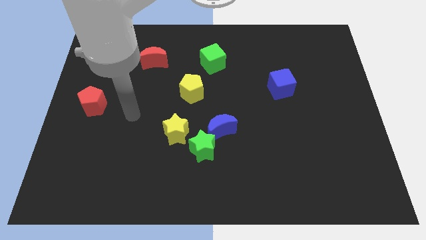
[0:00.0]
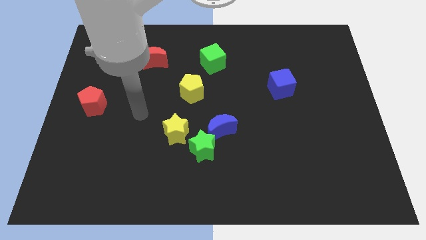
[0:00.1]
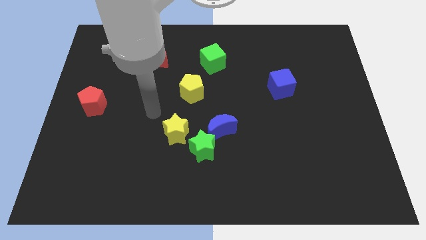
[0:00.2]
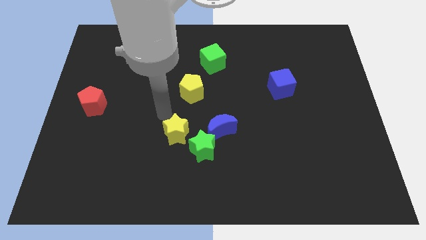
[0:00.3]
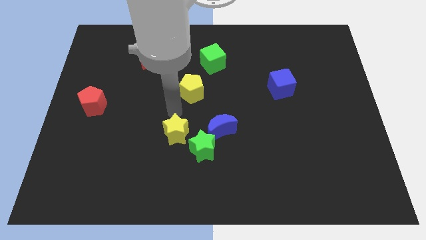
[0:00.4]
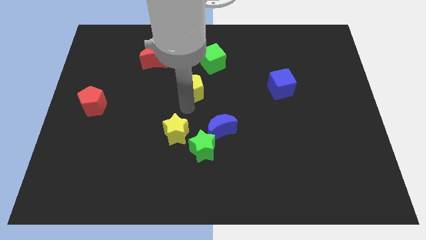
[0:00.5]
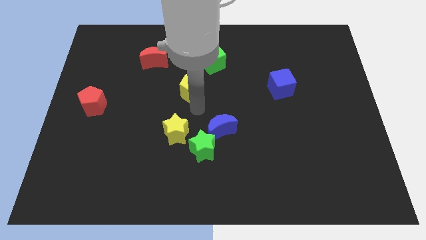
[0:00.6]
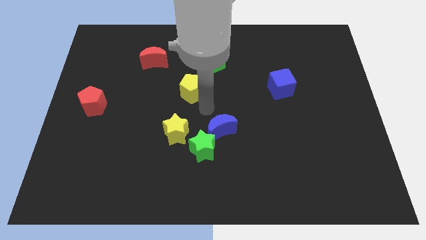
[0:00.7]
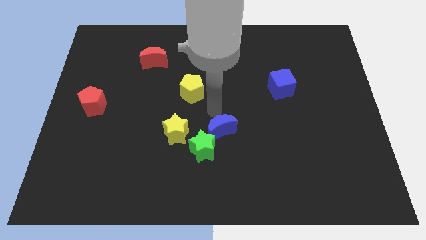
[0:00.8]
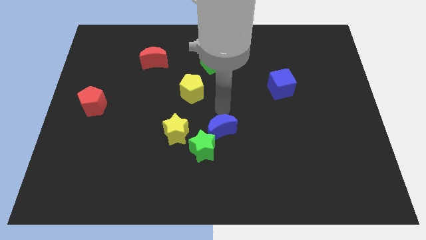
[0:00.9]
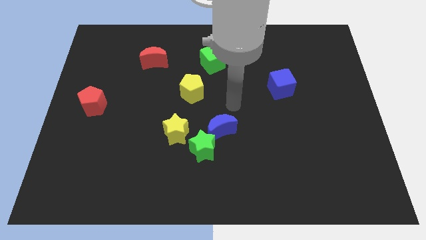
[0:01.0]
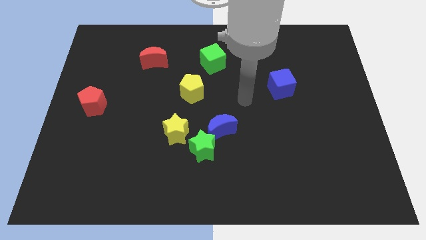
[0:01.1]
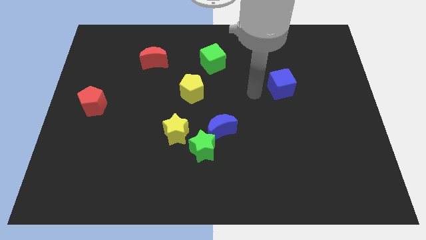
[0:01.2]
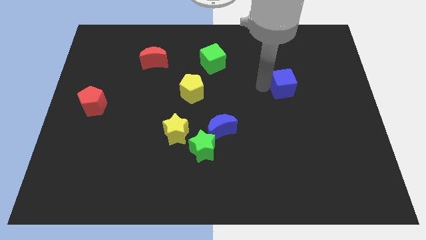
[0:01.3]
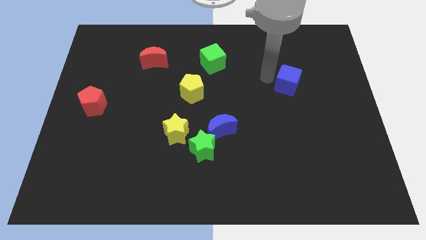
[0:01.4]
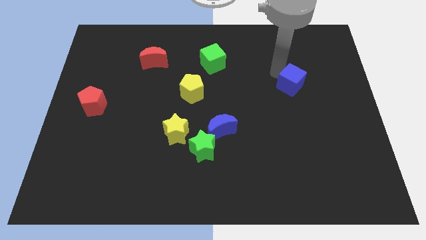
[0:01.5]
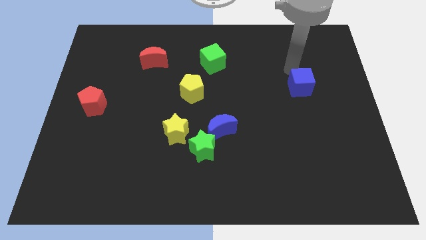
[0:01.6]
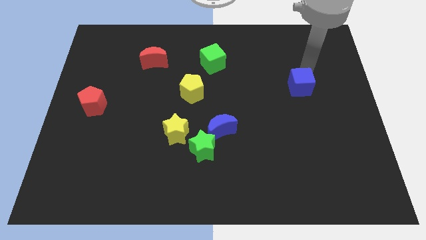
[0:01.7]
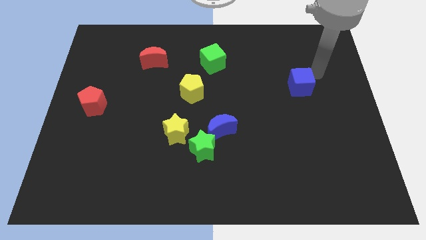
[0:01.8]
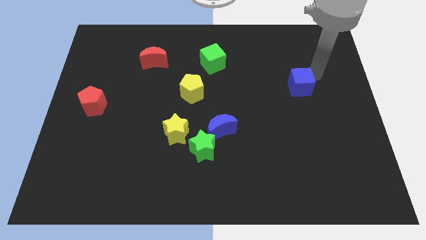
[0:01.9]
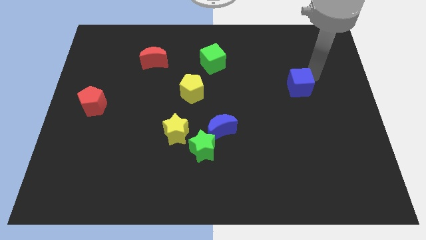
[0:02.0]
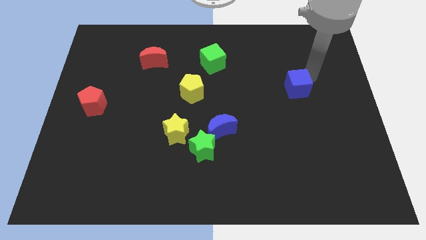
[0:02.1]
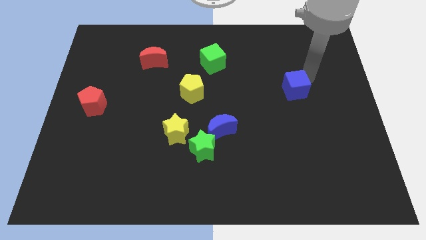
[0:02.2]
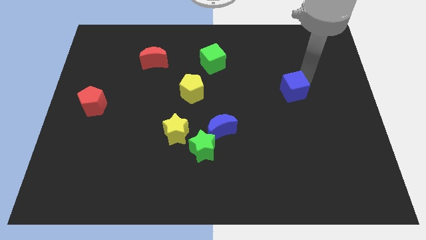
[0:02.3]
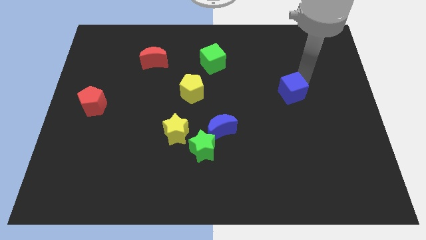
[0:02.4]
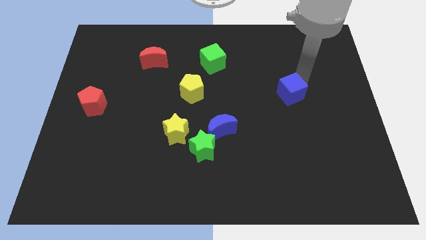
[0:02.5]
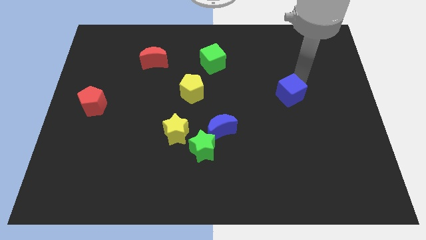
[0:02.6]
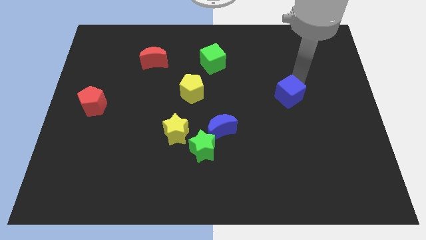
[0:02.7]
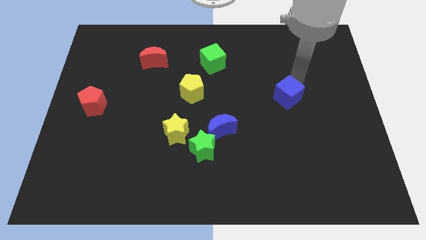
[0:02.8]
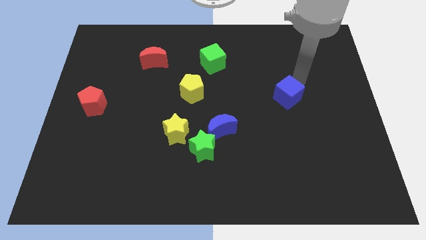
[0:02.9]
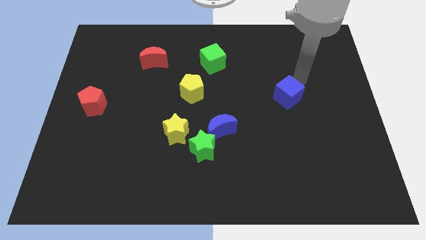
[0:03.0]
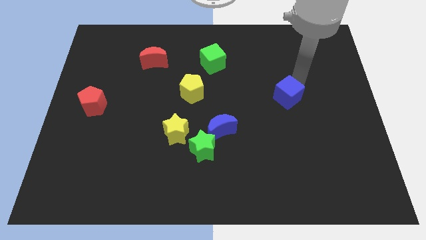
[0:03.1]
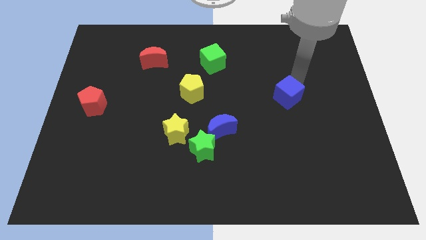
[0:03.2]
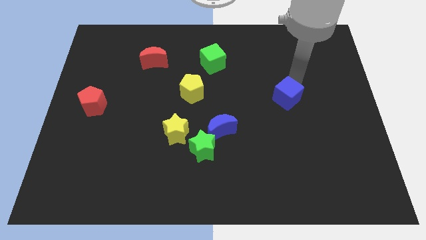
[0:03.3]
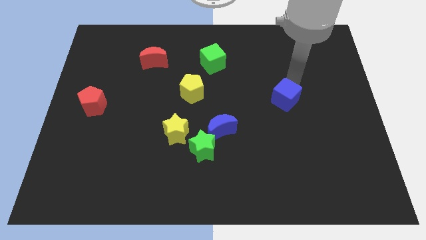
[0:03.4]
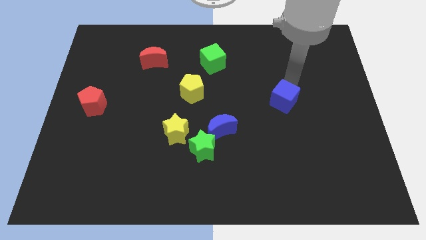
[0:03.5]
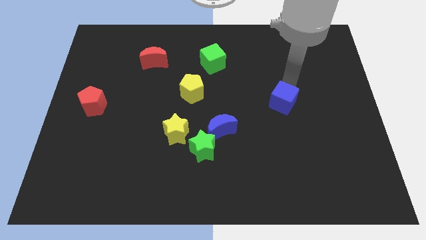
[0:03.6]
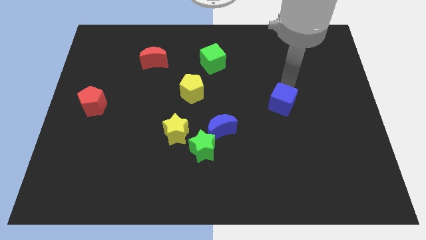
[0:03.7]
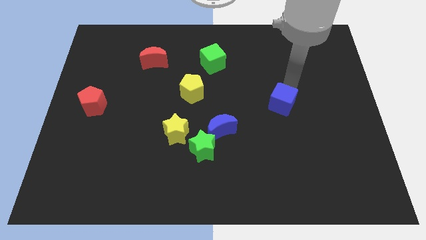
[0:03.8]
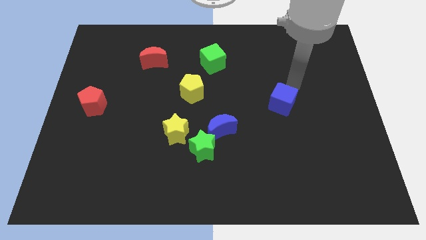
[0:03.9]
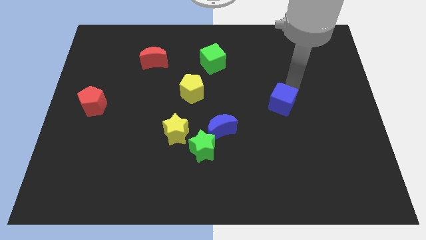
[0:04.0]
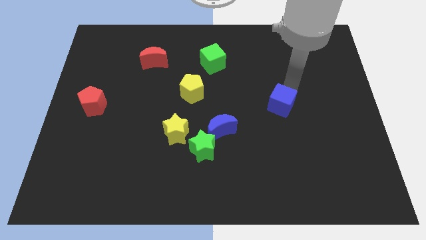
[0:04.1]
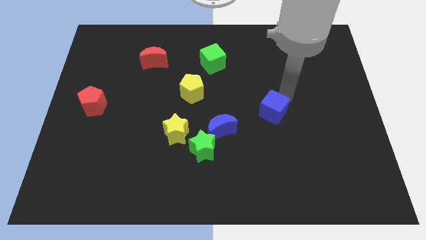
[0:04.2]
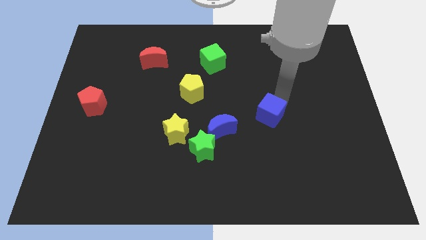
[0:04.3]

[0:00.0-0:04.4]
slide the blue cube to the right of the blue moon

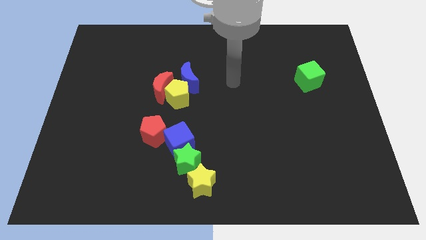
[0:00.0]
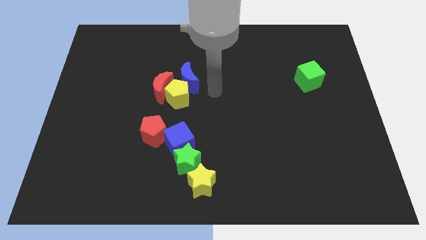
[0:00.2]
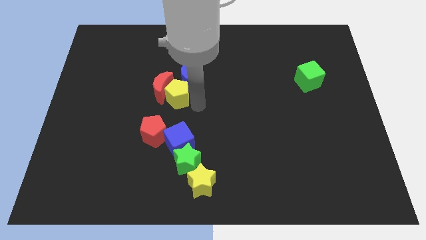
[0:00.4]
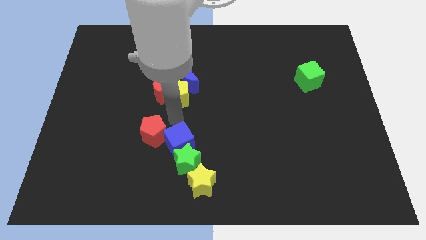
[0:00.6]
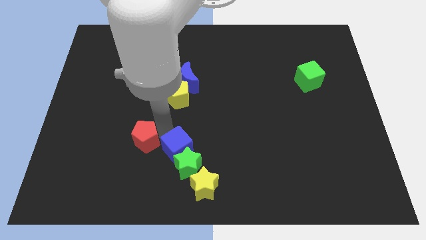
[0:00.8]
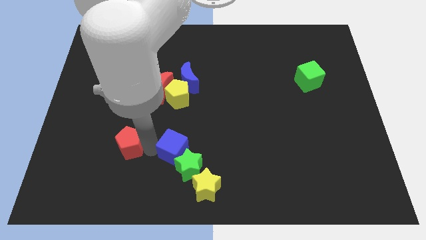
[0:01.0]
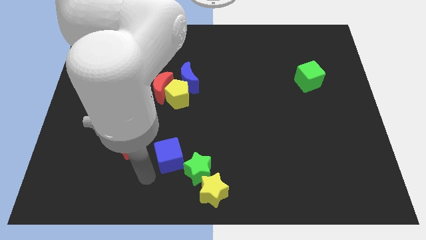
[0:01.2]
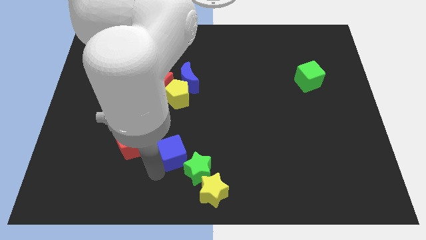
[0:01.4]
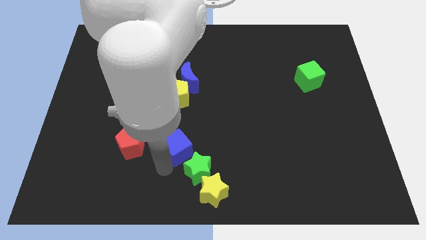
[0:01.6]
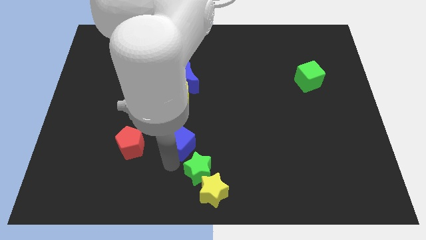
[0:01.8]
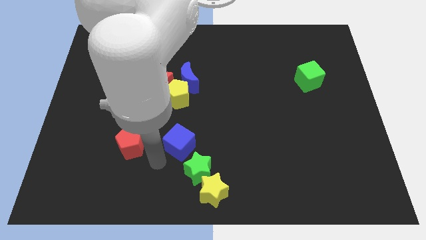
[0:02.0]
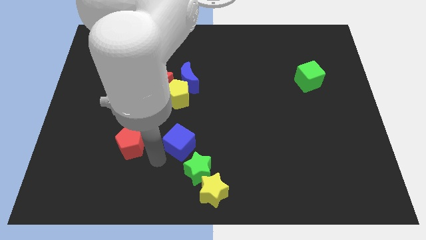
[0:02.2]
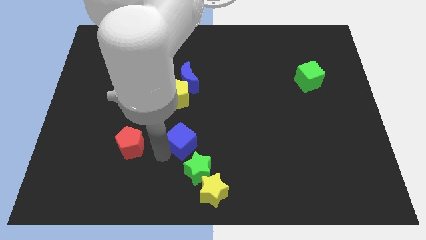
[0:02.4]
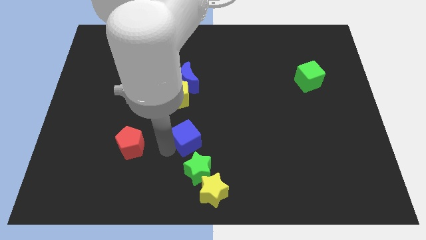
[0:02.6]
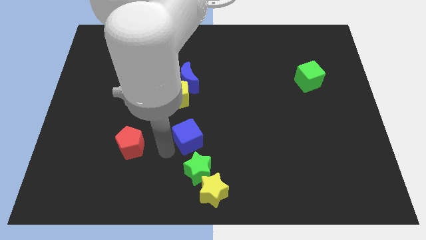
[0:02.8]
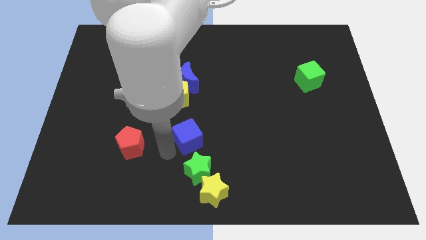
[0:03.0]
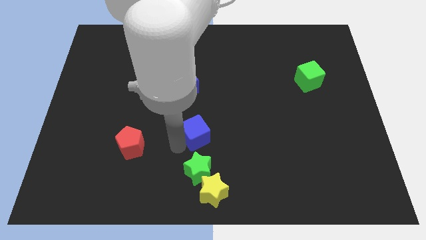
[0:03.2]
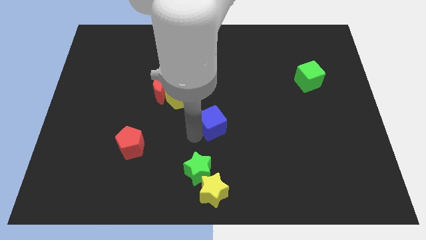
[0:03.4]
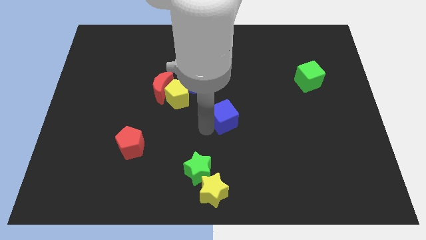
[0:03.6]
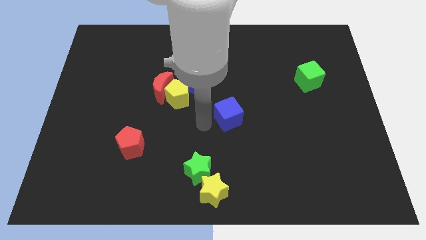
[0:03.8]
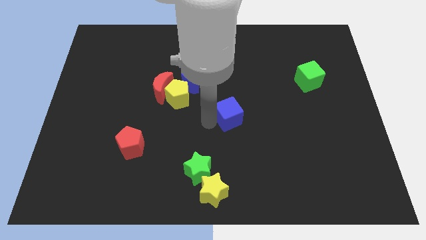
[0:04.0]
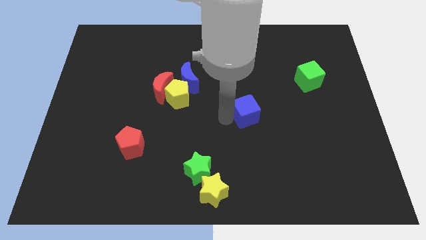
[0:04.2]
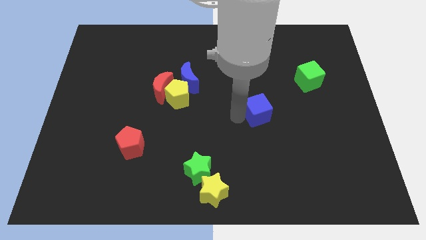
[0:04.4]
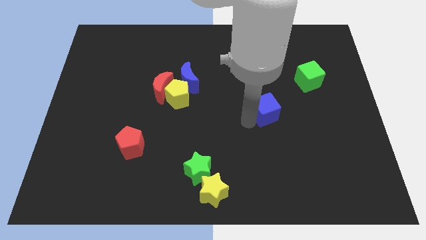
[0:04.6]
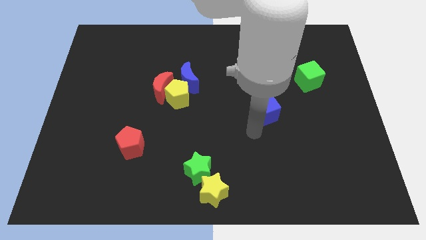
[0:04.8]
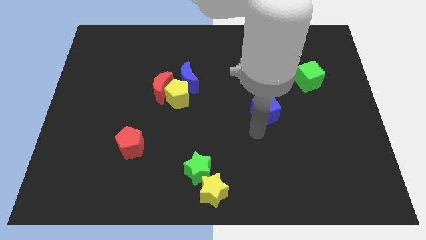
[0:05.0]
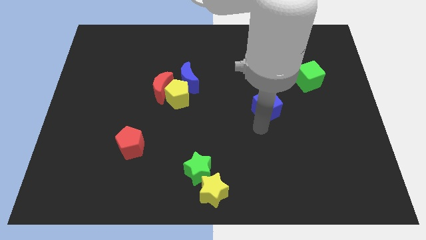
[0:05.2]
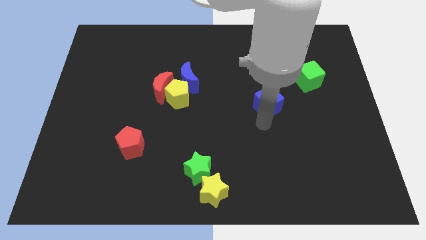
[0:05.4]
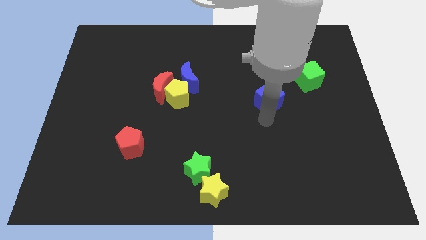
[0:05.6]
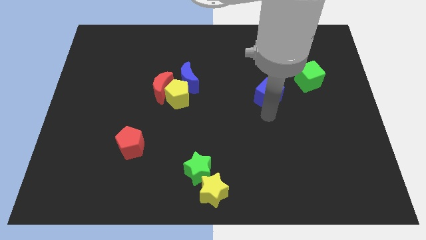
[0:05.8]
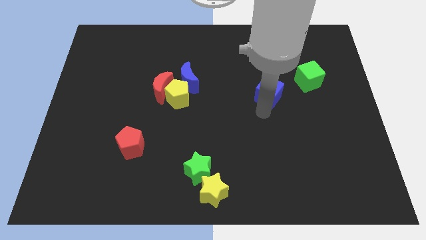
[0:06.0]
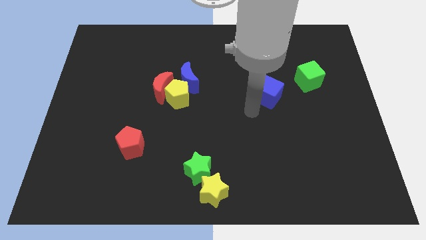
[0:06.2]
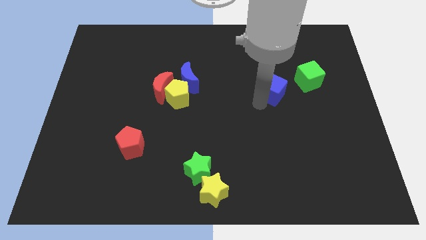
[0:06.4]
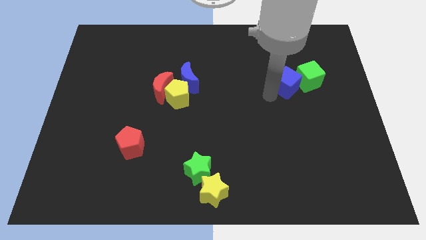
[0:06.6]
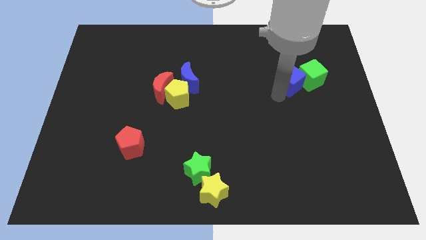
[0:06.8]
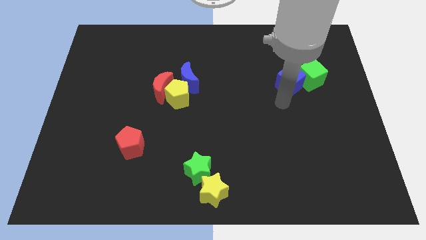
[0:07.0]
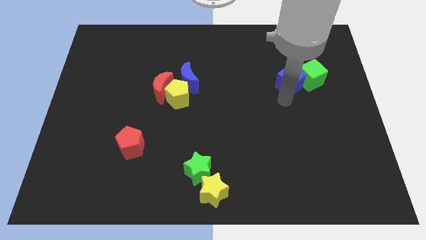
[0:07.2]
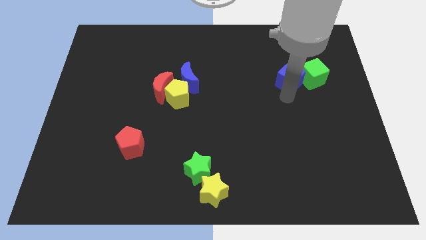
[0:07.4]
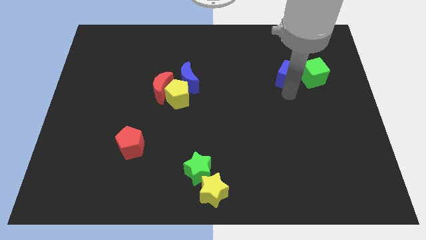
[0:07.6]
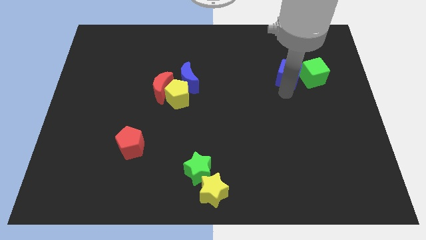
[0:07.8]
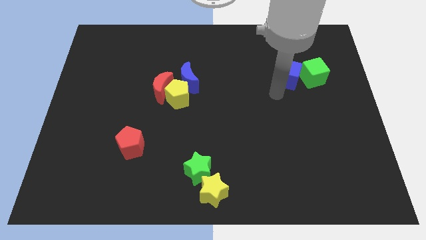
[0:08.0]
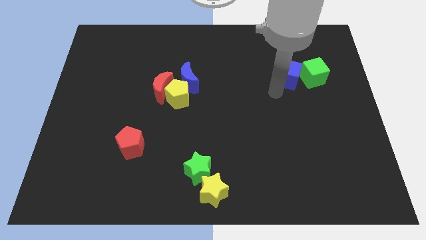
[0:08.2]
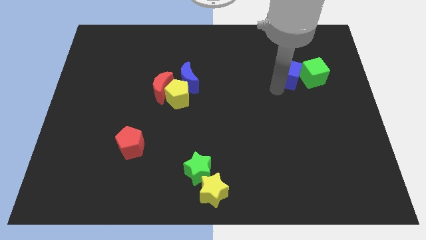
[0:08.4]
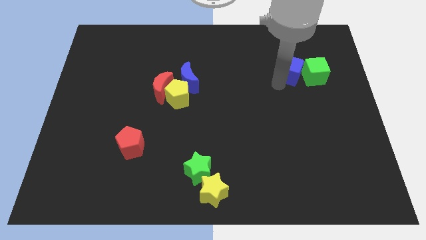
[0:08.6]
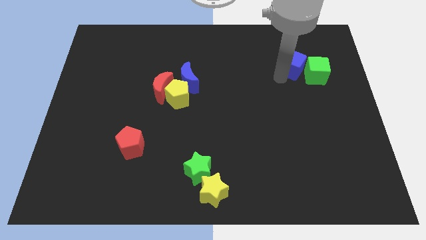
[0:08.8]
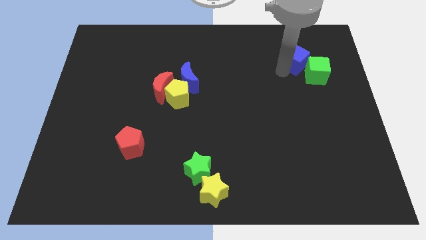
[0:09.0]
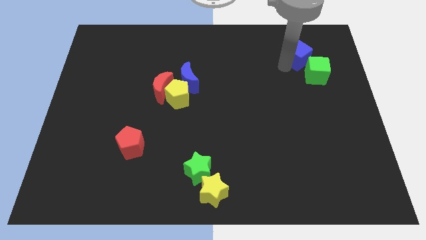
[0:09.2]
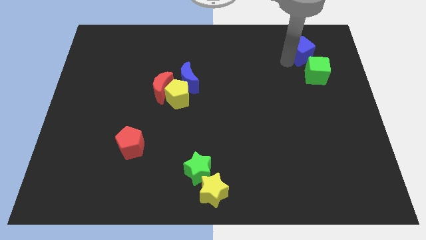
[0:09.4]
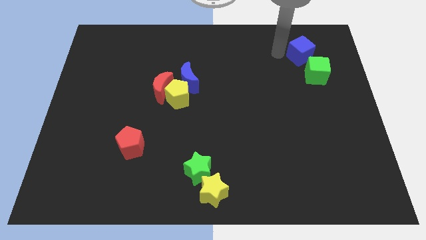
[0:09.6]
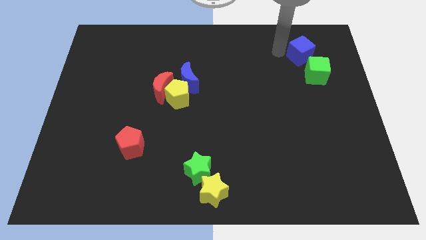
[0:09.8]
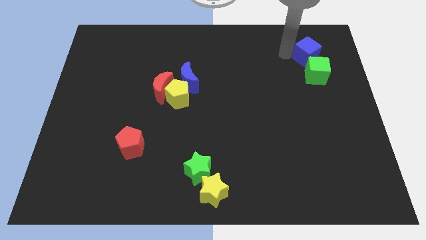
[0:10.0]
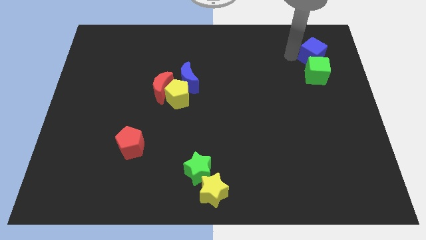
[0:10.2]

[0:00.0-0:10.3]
put the blue cube to the top right side of the green cube
